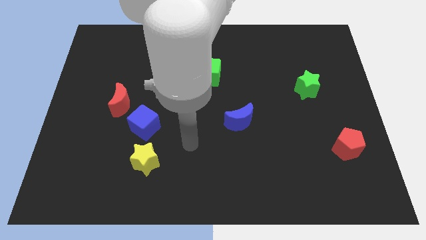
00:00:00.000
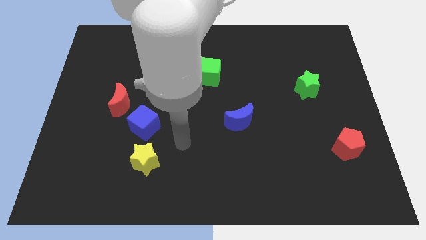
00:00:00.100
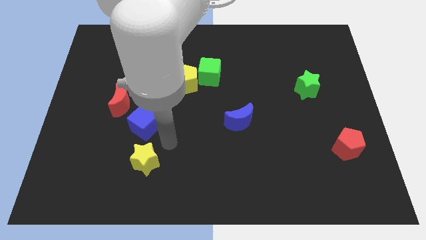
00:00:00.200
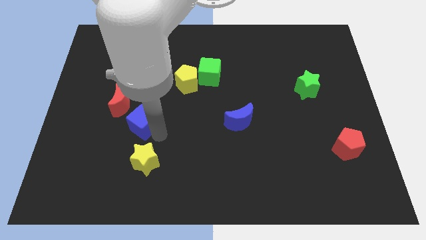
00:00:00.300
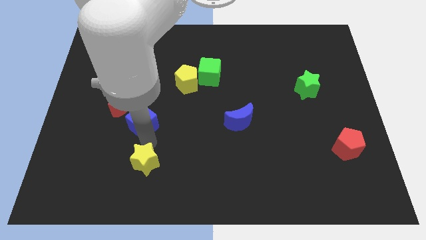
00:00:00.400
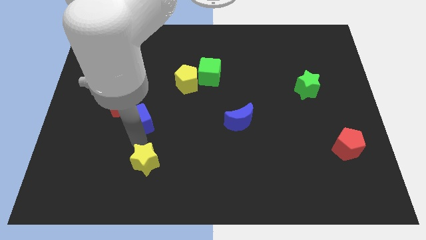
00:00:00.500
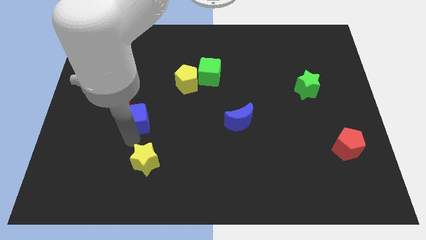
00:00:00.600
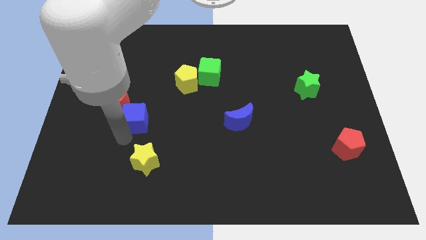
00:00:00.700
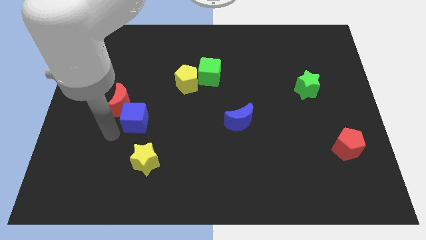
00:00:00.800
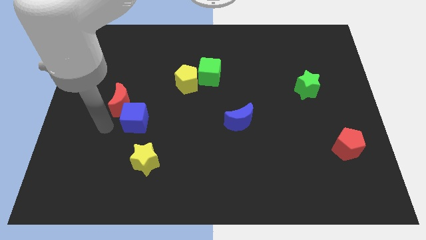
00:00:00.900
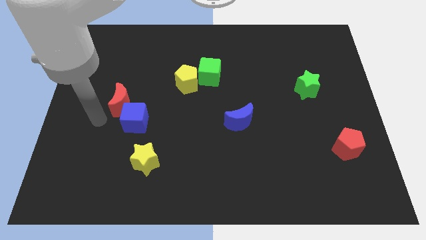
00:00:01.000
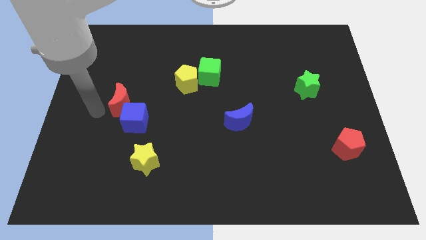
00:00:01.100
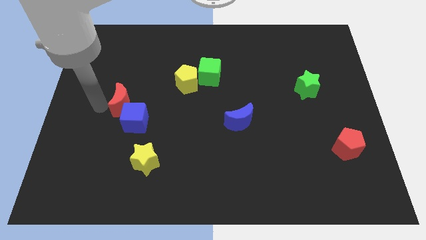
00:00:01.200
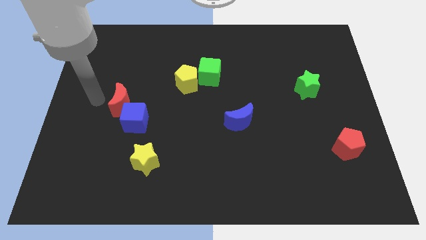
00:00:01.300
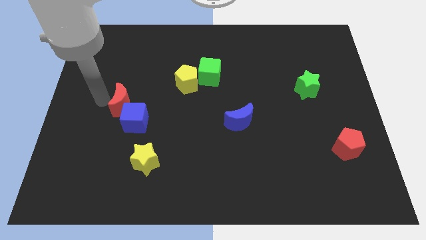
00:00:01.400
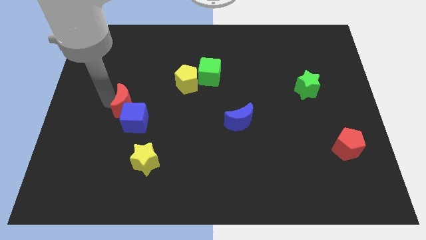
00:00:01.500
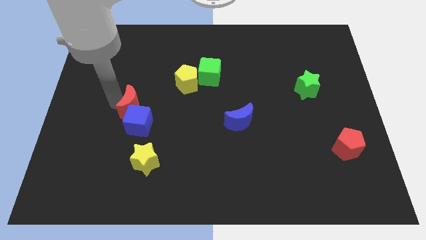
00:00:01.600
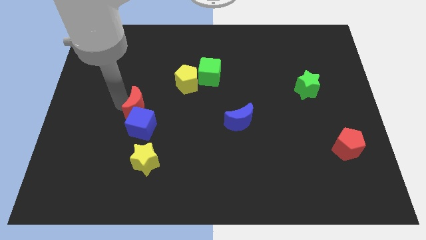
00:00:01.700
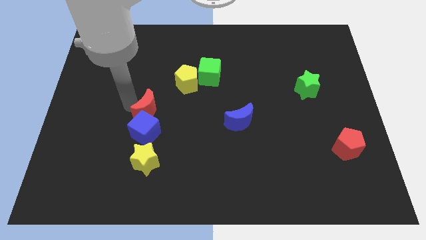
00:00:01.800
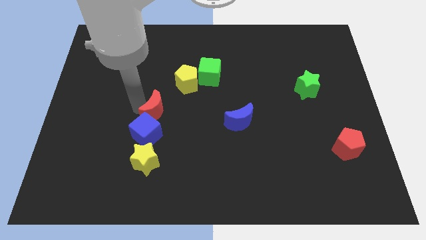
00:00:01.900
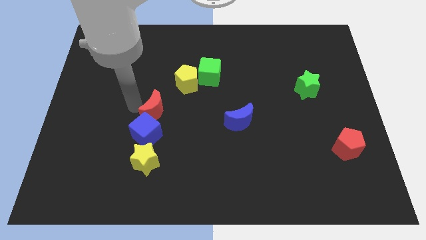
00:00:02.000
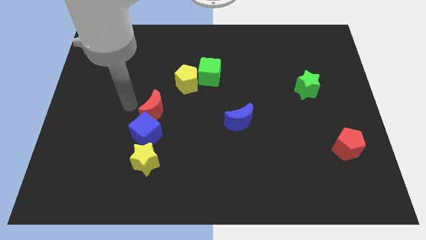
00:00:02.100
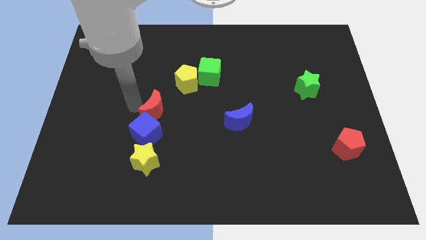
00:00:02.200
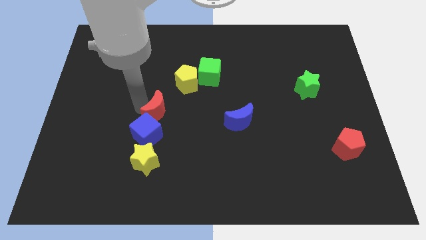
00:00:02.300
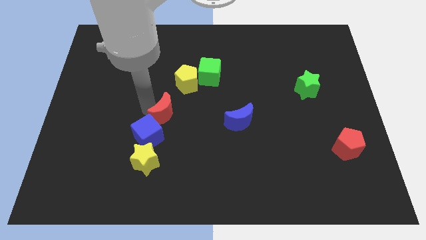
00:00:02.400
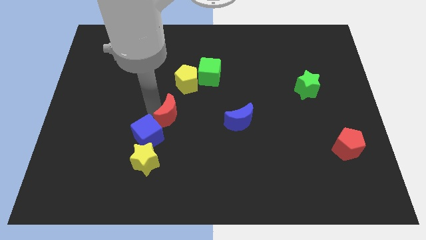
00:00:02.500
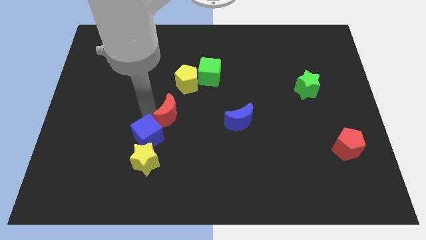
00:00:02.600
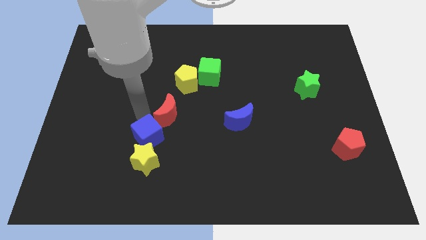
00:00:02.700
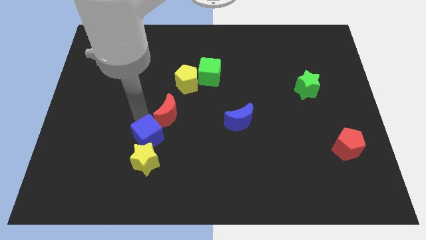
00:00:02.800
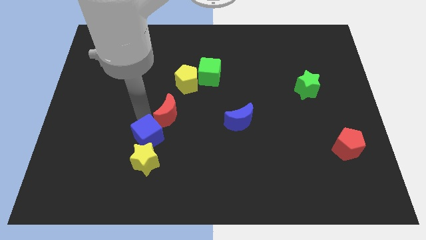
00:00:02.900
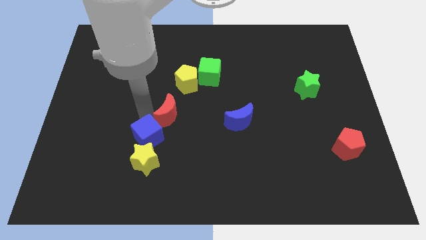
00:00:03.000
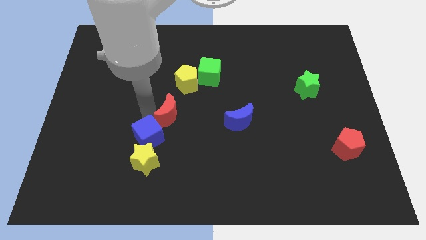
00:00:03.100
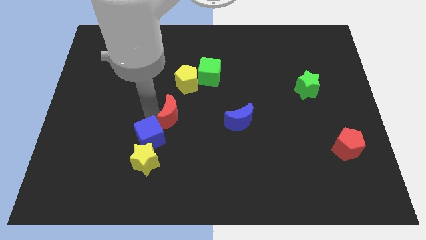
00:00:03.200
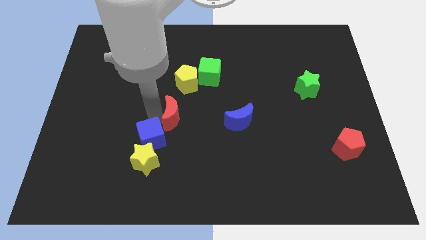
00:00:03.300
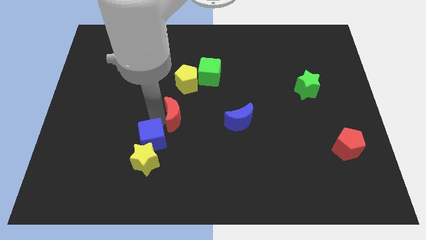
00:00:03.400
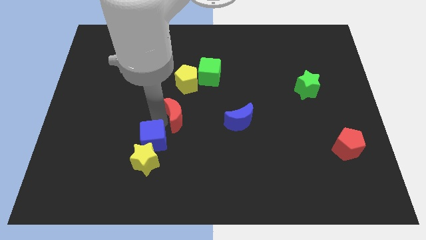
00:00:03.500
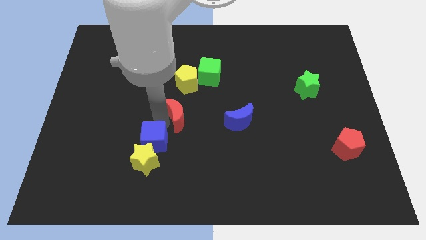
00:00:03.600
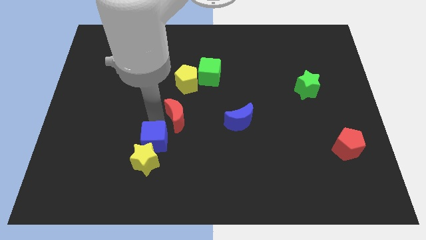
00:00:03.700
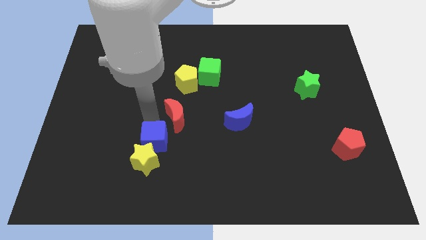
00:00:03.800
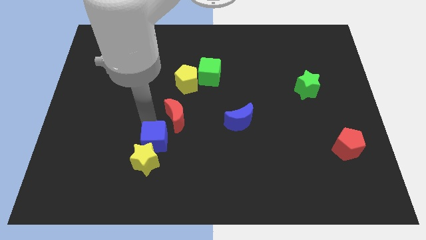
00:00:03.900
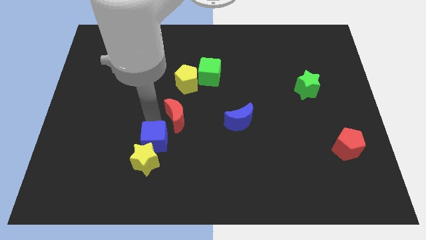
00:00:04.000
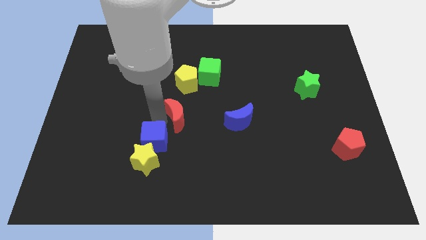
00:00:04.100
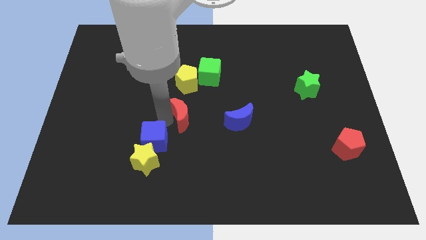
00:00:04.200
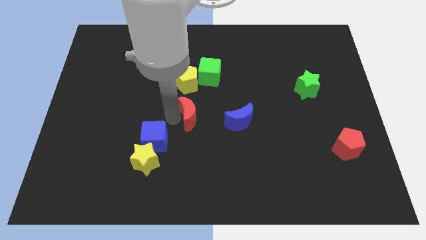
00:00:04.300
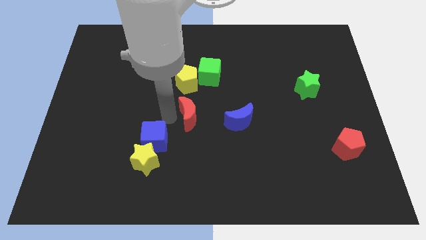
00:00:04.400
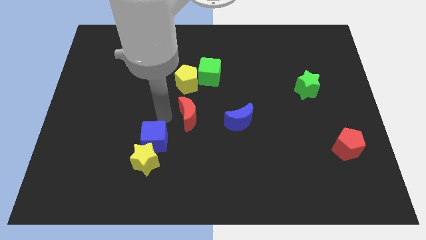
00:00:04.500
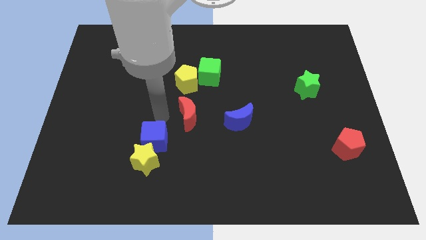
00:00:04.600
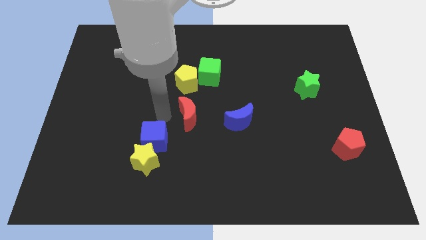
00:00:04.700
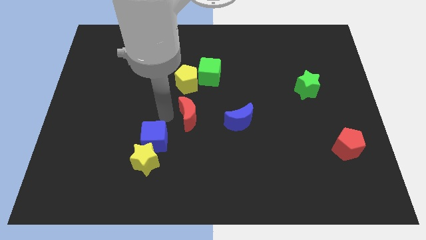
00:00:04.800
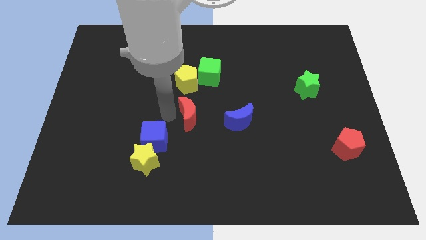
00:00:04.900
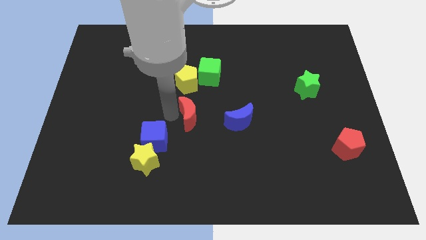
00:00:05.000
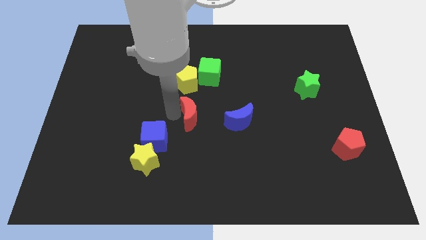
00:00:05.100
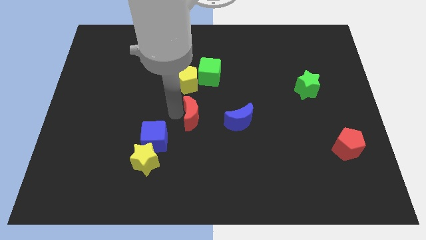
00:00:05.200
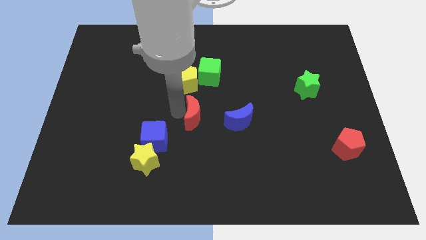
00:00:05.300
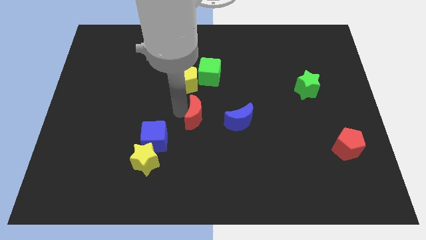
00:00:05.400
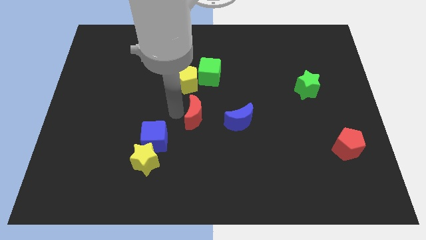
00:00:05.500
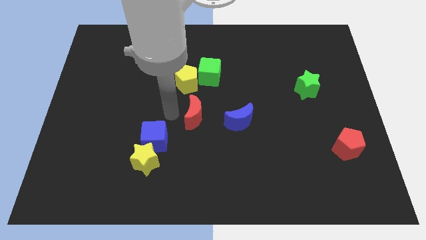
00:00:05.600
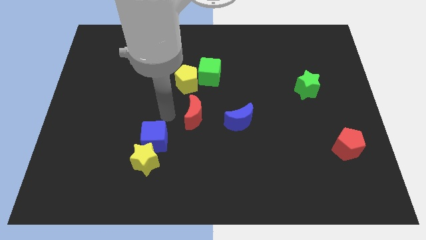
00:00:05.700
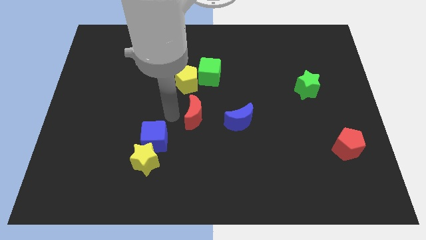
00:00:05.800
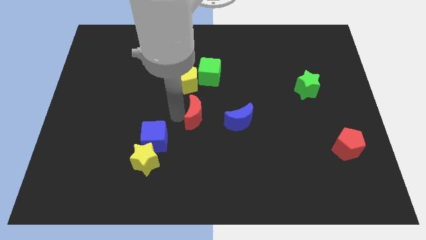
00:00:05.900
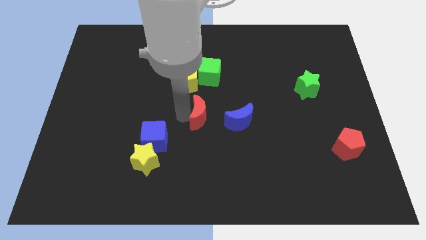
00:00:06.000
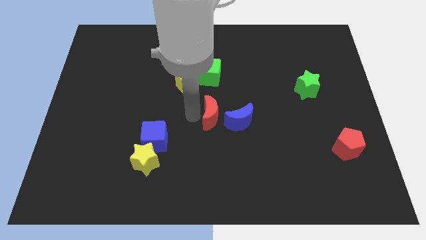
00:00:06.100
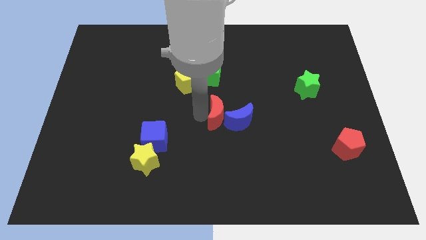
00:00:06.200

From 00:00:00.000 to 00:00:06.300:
put the red moon next to the blue moon
